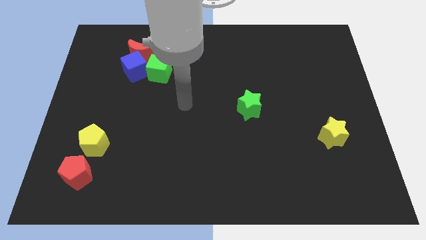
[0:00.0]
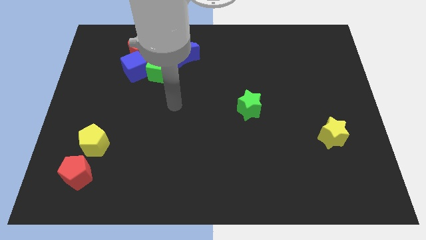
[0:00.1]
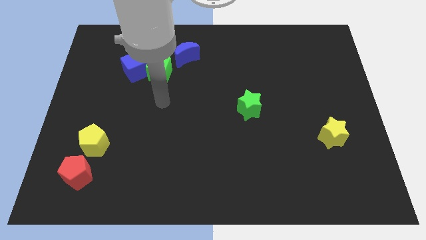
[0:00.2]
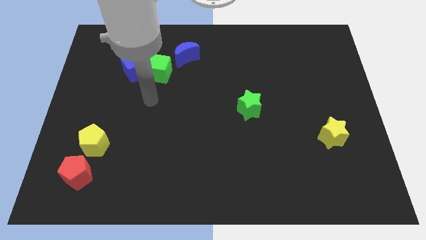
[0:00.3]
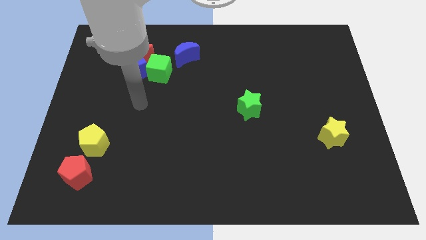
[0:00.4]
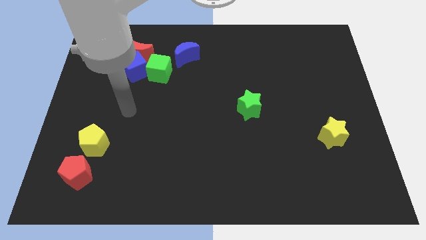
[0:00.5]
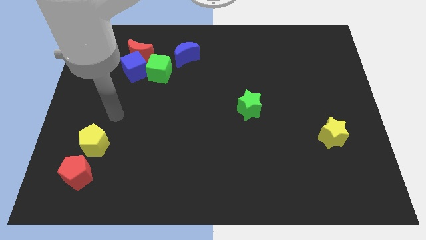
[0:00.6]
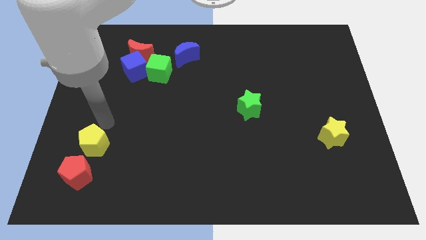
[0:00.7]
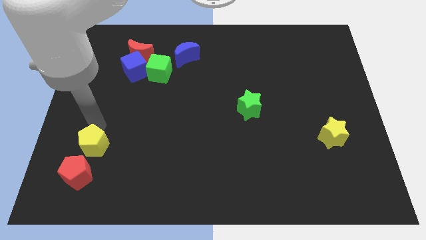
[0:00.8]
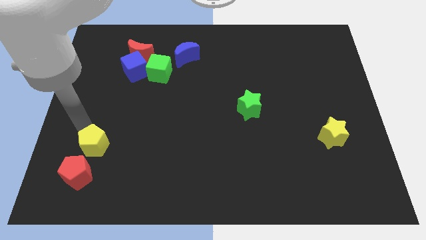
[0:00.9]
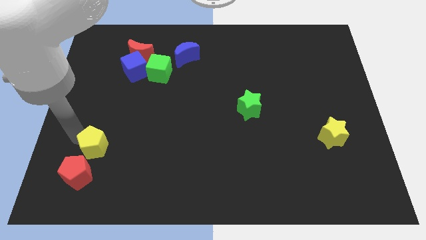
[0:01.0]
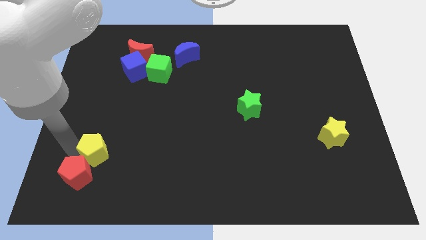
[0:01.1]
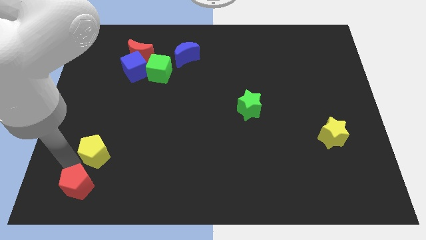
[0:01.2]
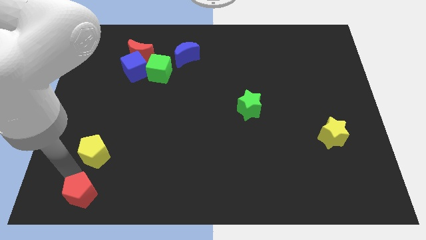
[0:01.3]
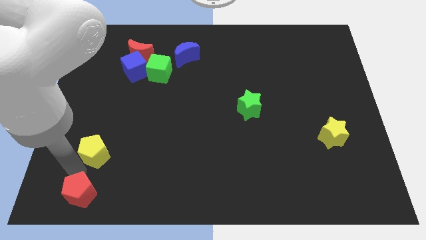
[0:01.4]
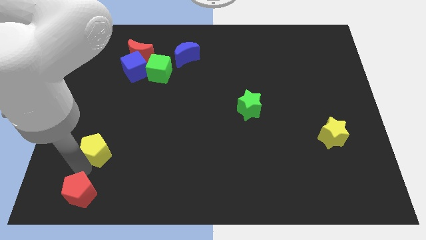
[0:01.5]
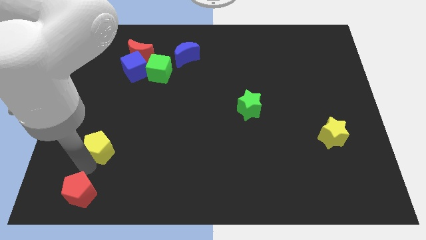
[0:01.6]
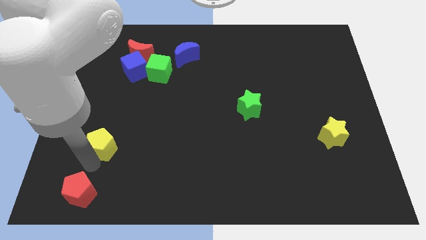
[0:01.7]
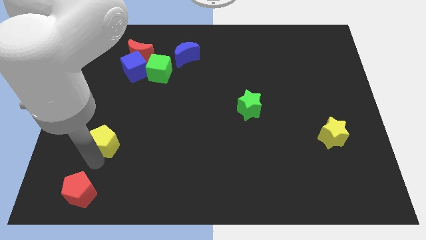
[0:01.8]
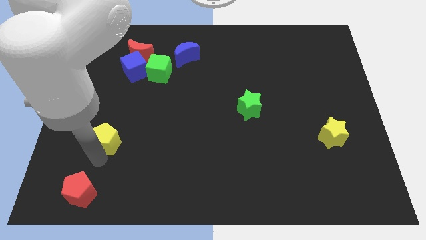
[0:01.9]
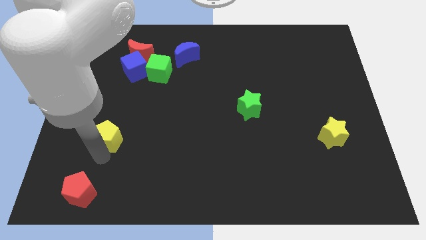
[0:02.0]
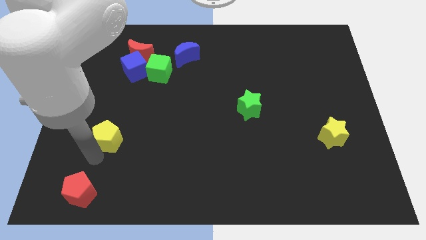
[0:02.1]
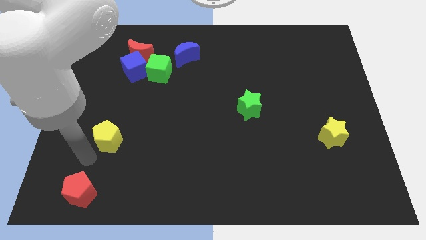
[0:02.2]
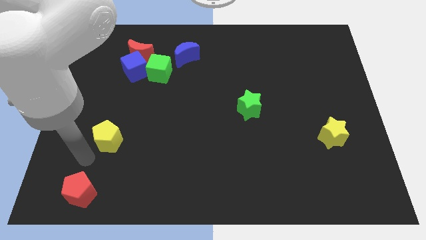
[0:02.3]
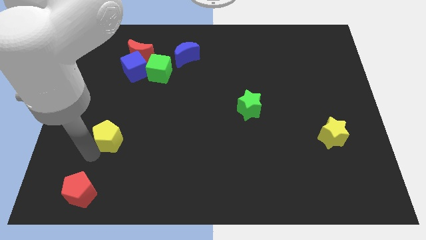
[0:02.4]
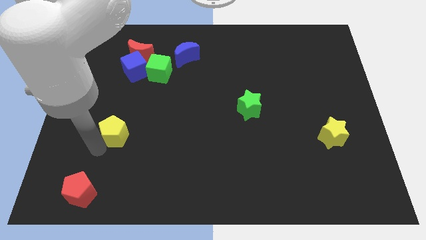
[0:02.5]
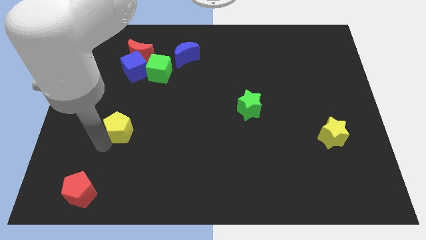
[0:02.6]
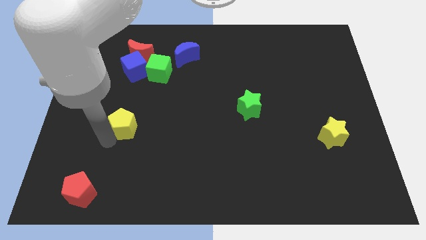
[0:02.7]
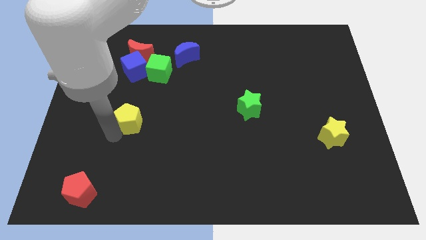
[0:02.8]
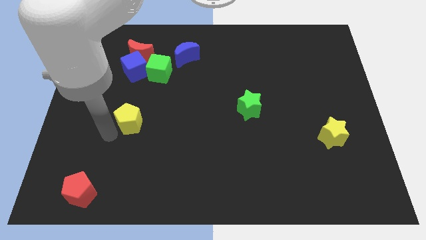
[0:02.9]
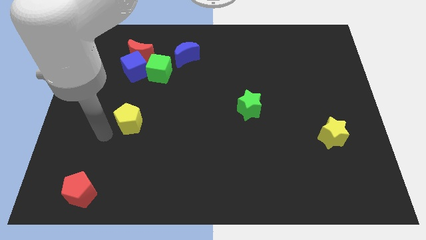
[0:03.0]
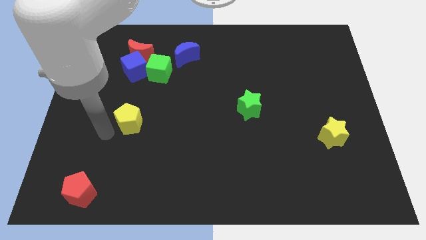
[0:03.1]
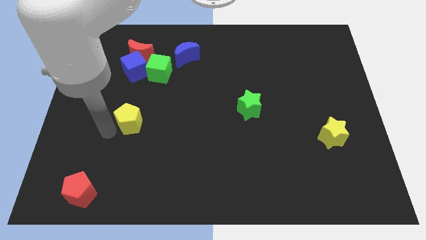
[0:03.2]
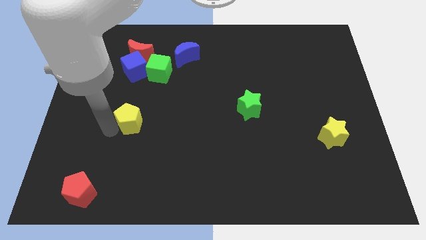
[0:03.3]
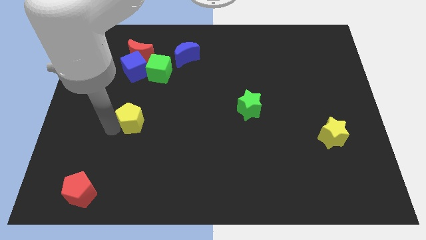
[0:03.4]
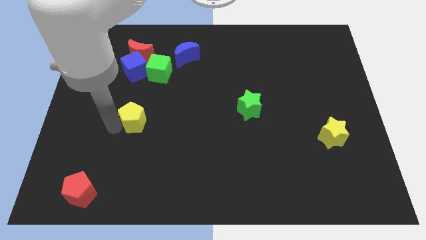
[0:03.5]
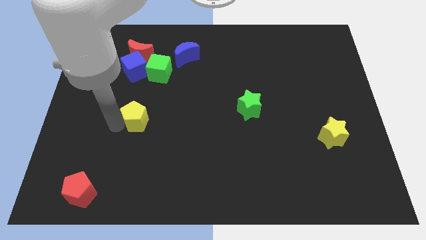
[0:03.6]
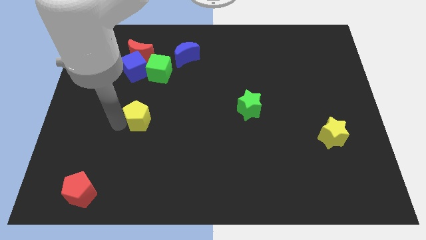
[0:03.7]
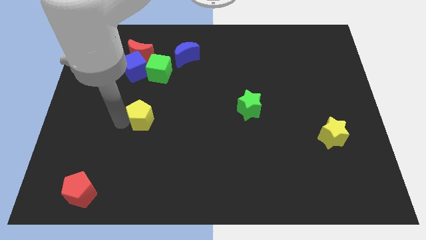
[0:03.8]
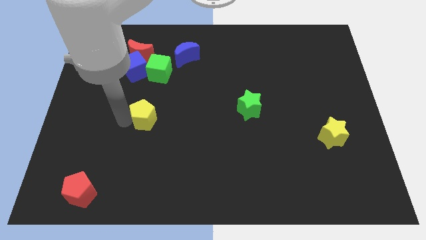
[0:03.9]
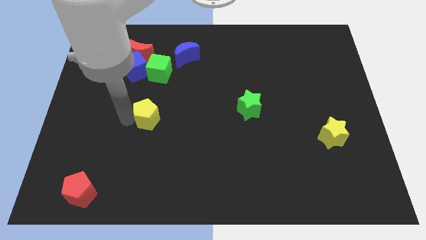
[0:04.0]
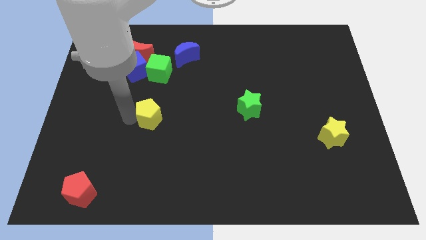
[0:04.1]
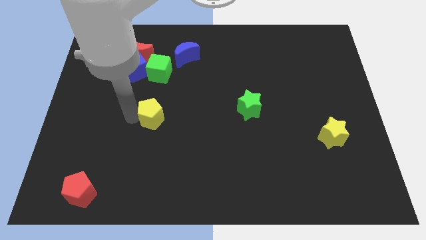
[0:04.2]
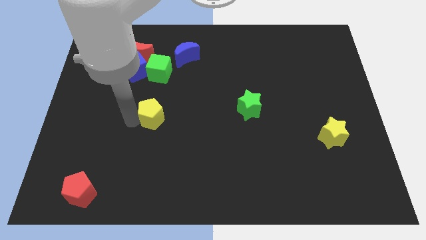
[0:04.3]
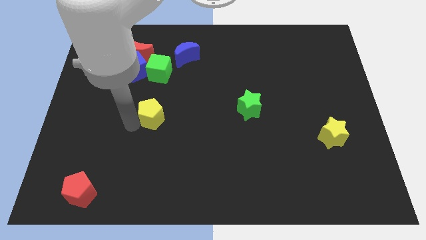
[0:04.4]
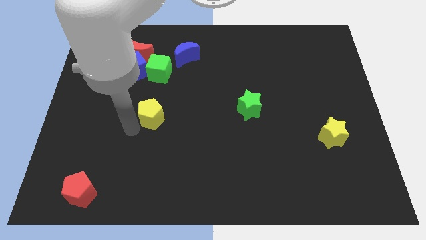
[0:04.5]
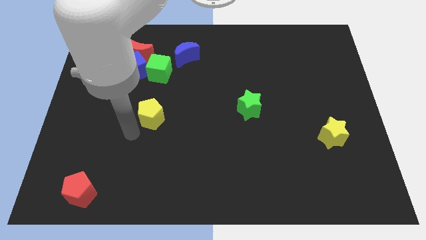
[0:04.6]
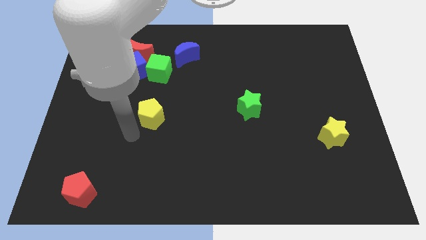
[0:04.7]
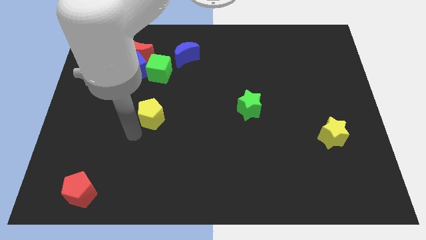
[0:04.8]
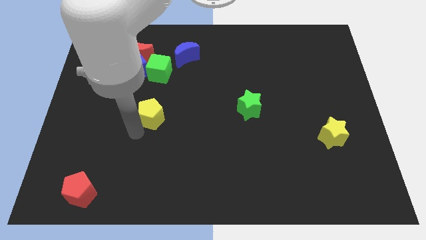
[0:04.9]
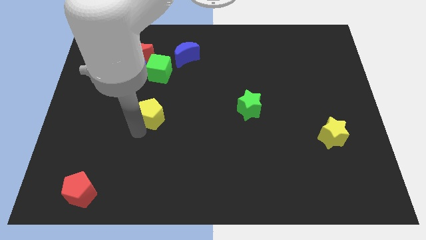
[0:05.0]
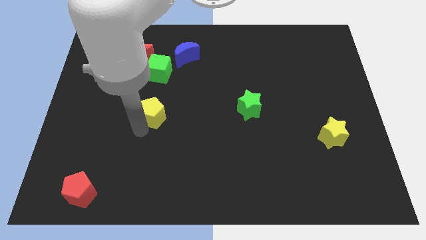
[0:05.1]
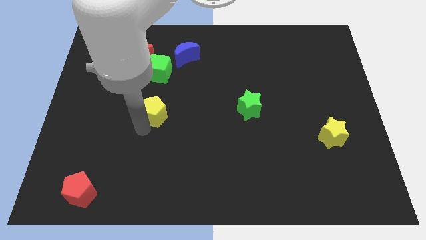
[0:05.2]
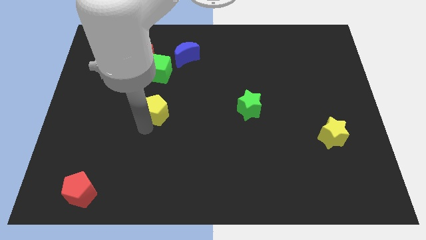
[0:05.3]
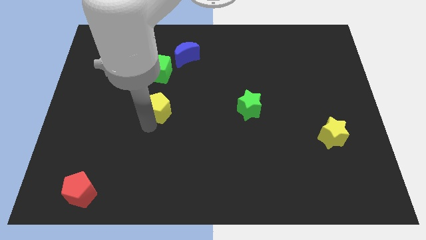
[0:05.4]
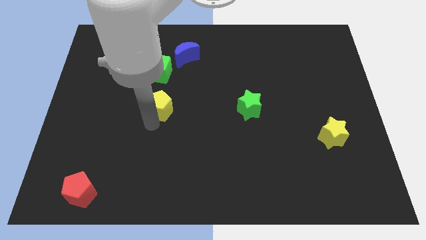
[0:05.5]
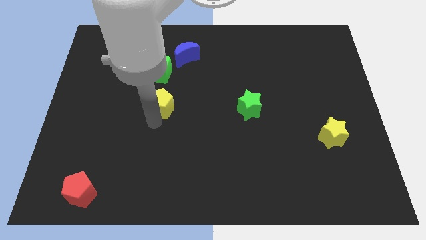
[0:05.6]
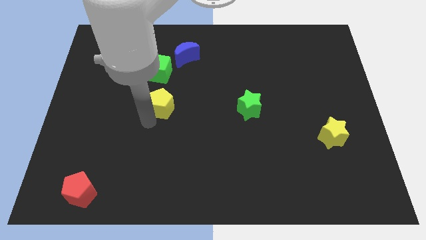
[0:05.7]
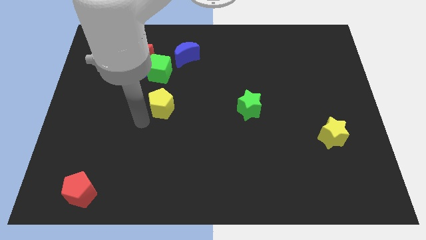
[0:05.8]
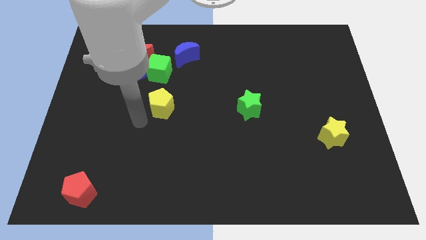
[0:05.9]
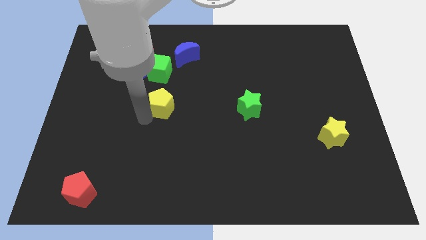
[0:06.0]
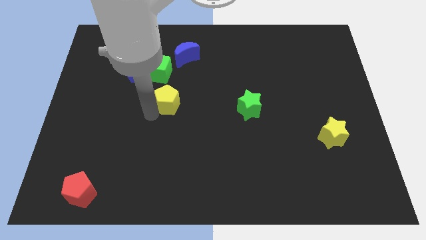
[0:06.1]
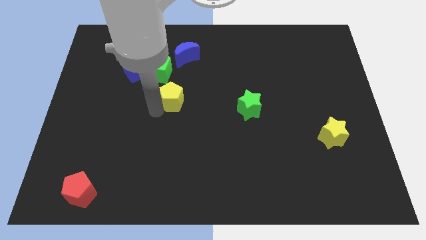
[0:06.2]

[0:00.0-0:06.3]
slide the yellow pentagon upwards and to the right

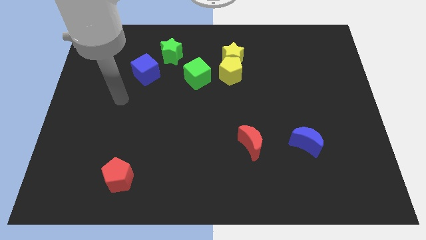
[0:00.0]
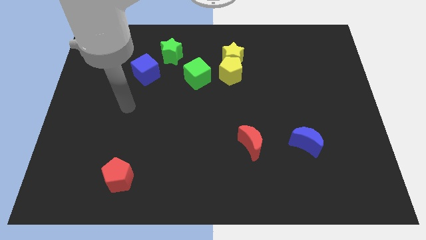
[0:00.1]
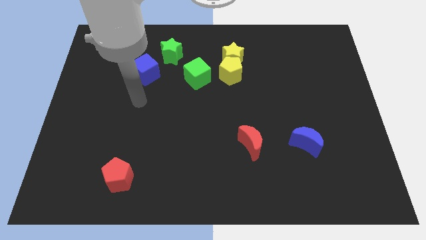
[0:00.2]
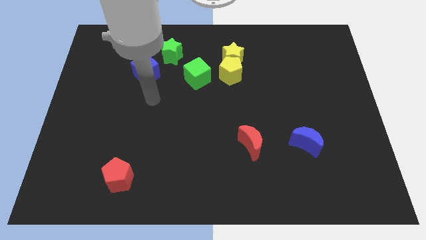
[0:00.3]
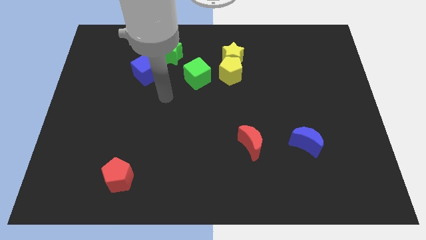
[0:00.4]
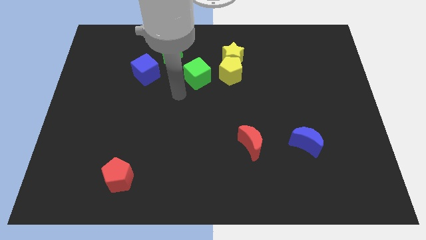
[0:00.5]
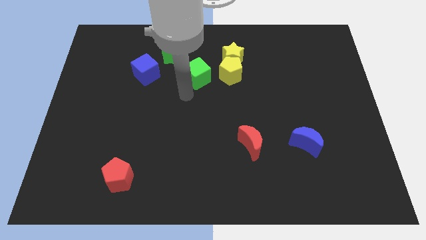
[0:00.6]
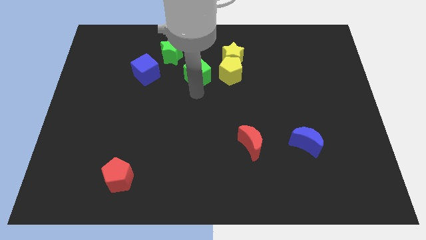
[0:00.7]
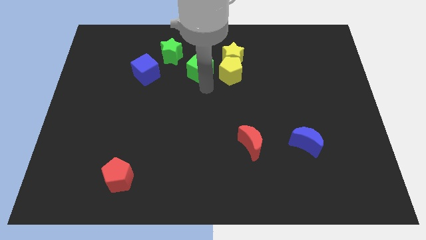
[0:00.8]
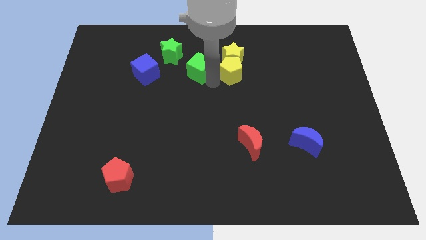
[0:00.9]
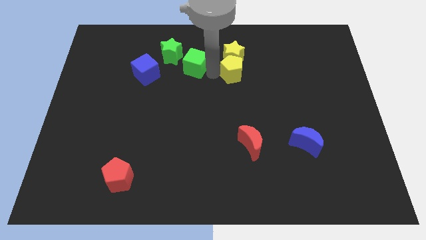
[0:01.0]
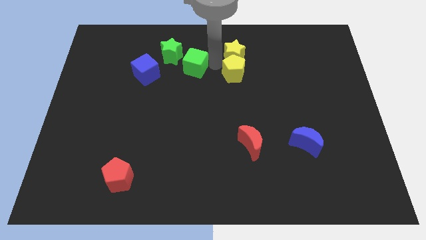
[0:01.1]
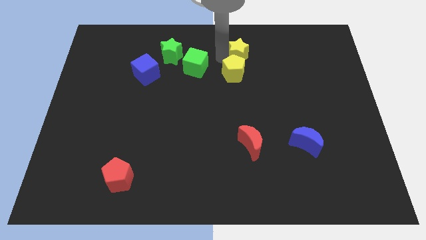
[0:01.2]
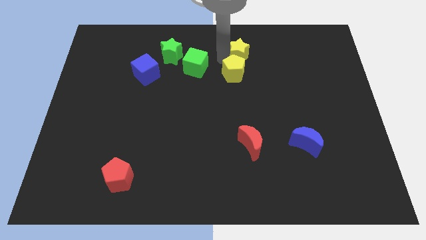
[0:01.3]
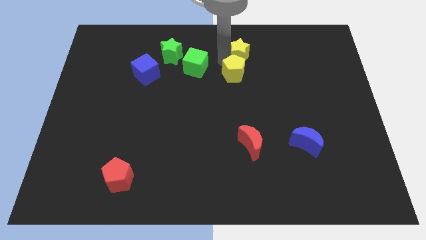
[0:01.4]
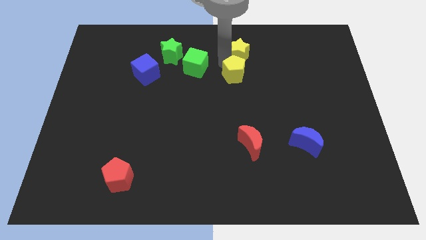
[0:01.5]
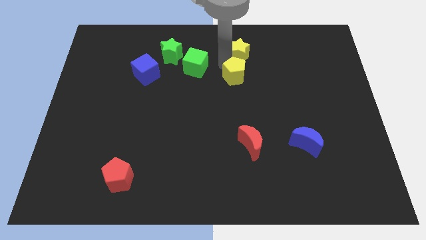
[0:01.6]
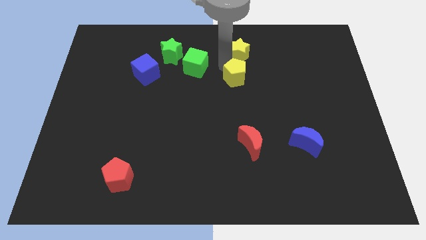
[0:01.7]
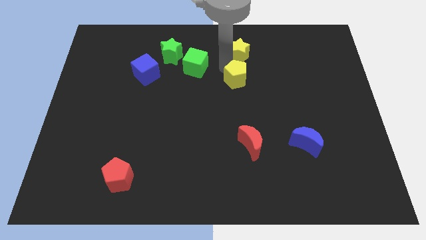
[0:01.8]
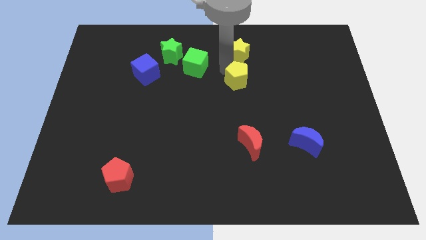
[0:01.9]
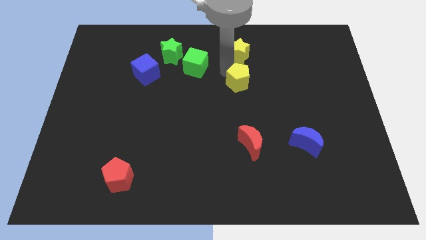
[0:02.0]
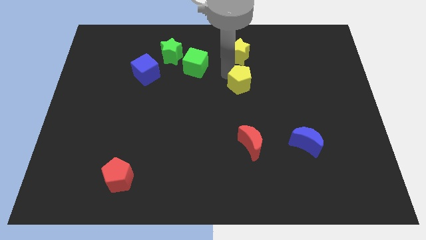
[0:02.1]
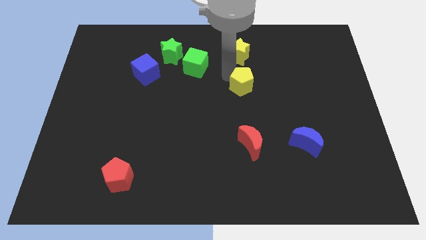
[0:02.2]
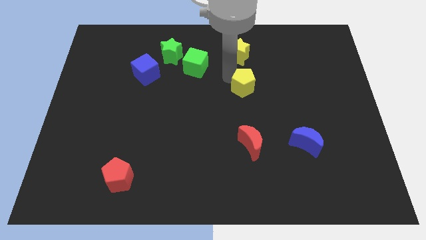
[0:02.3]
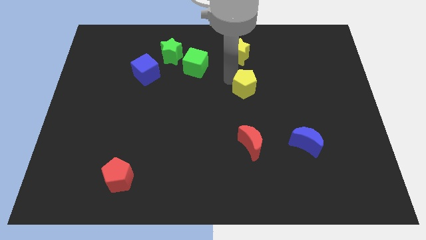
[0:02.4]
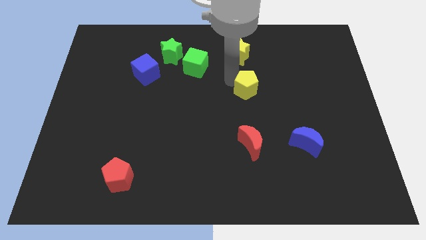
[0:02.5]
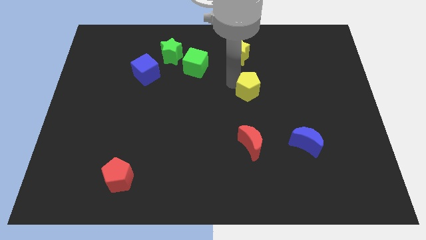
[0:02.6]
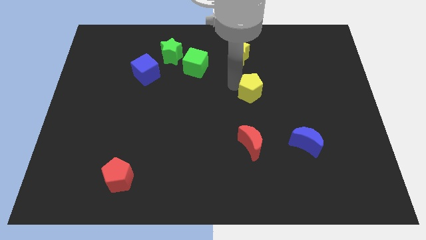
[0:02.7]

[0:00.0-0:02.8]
slide the yellow pentagon a bit downwards and right diagonally
